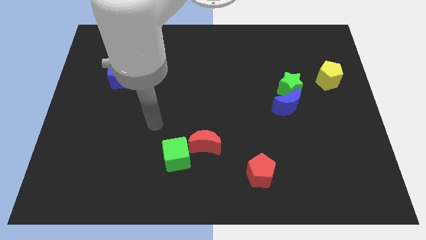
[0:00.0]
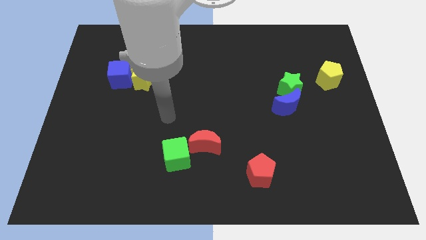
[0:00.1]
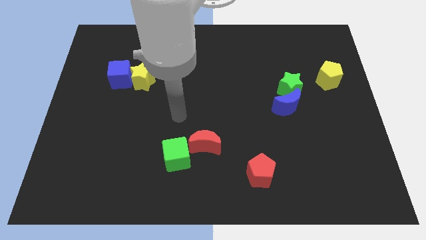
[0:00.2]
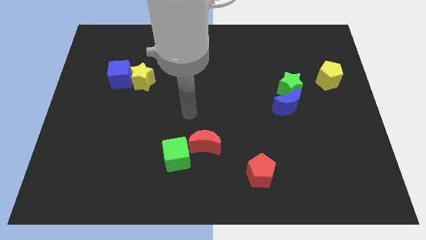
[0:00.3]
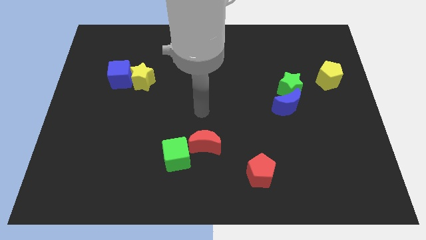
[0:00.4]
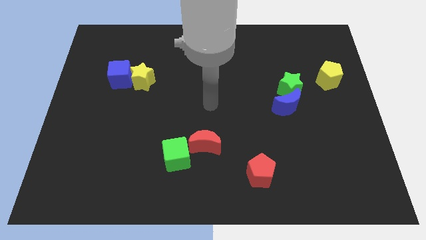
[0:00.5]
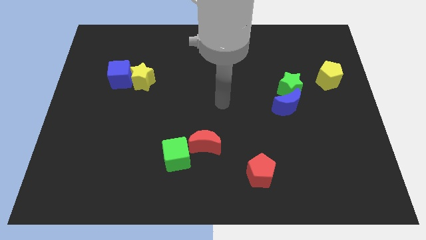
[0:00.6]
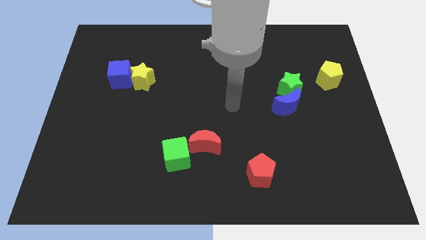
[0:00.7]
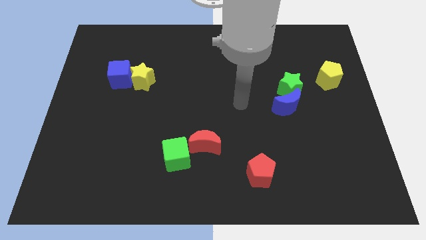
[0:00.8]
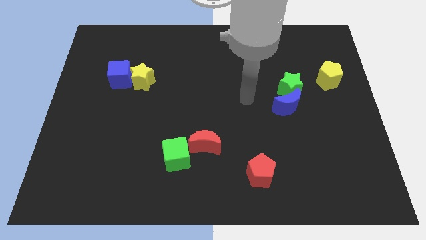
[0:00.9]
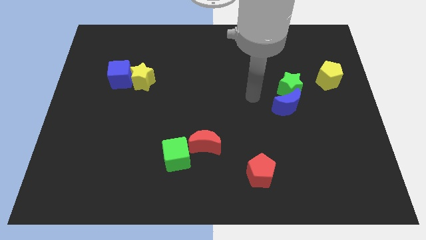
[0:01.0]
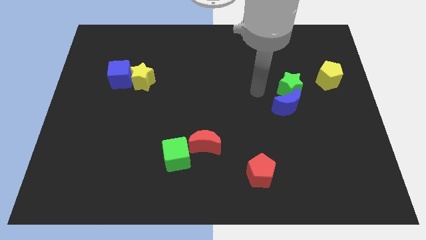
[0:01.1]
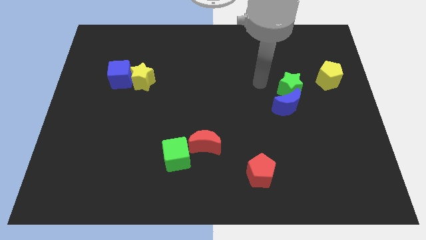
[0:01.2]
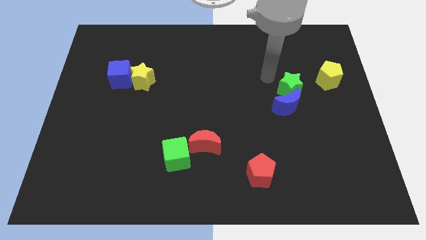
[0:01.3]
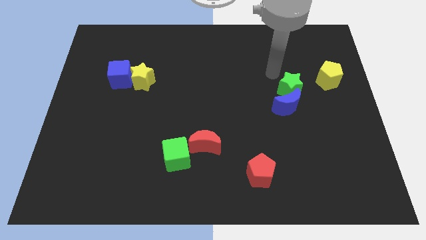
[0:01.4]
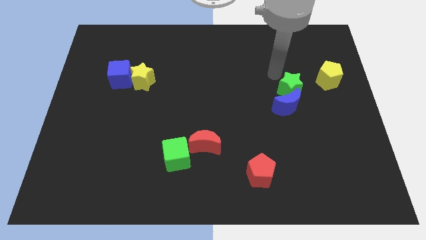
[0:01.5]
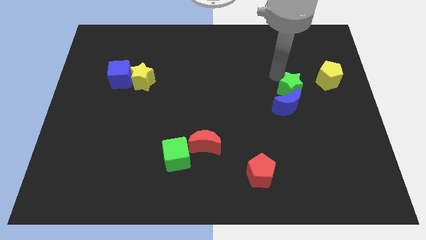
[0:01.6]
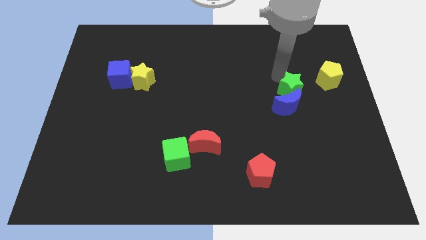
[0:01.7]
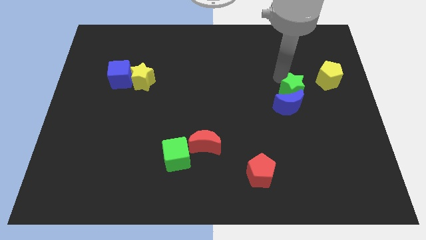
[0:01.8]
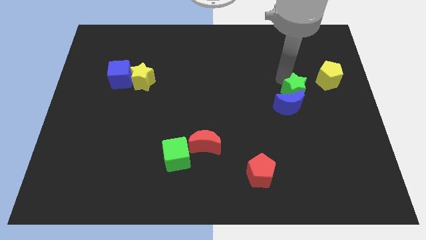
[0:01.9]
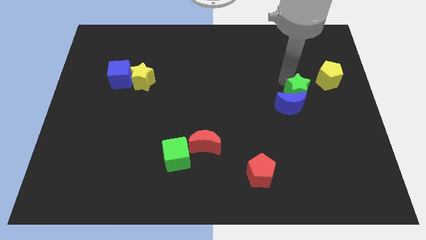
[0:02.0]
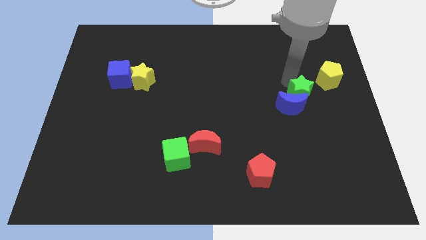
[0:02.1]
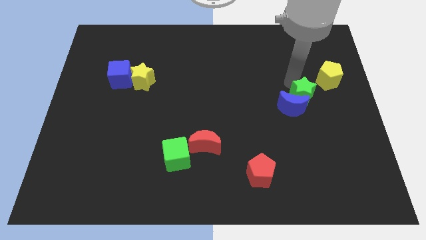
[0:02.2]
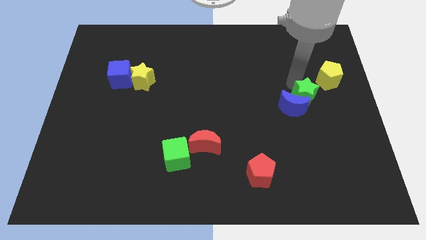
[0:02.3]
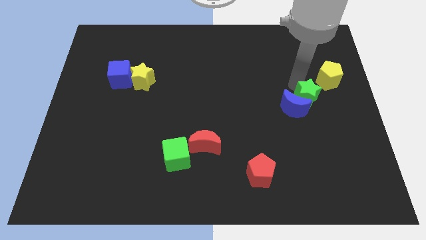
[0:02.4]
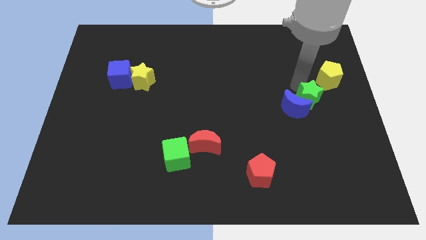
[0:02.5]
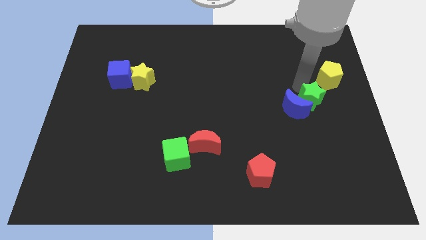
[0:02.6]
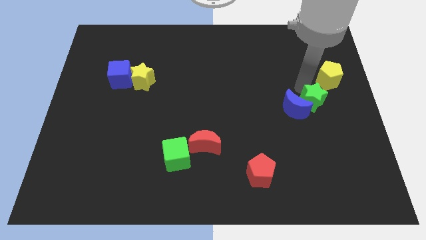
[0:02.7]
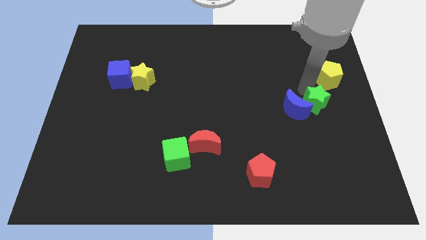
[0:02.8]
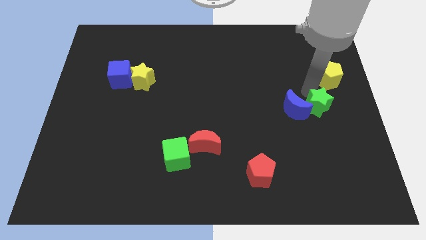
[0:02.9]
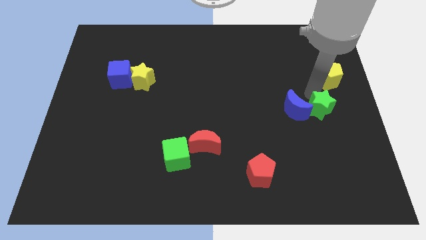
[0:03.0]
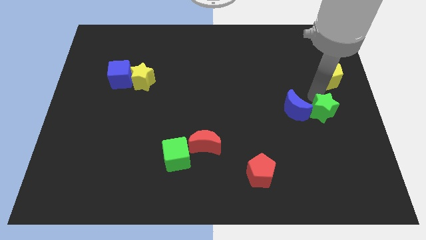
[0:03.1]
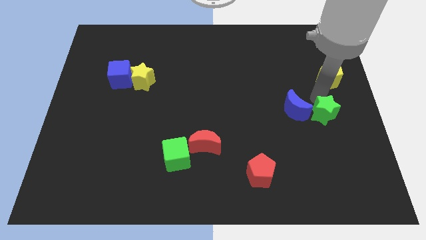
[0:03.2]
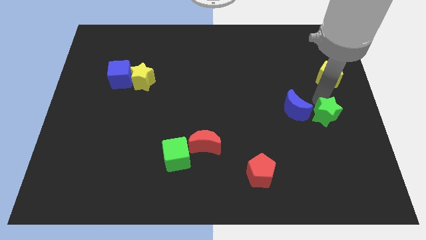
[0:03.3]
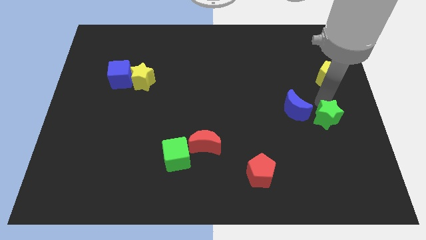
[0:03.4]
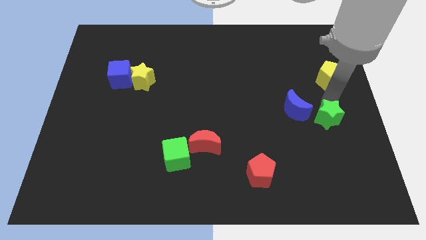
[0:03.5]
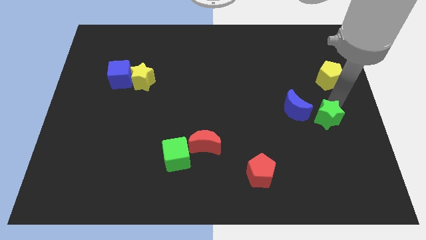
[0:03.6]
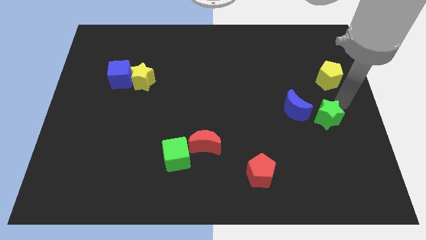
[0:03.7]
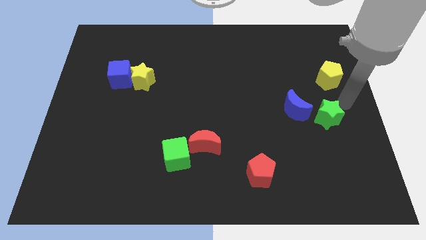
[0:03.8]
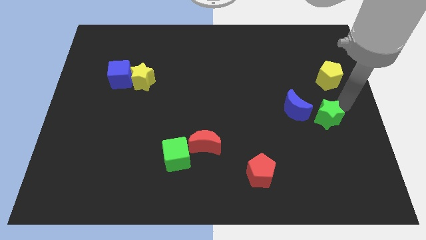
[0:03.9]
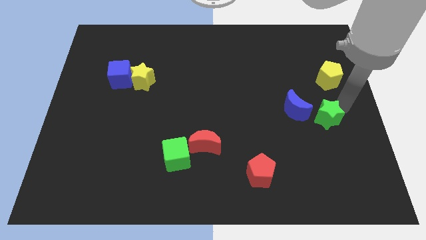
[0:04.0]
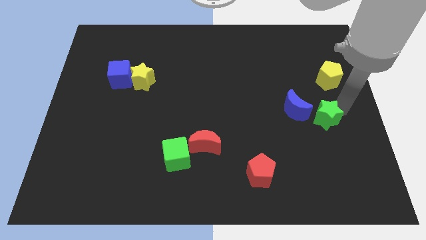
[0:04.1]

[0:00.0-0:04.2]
slightly move the green star downwards

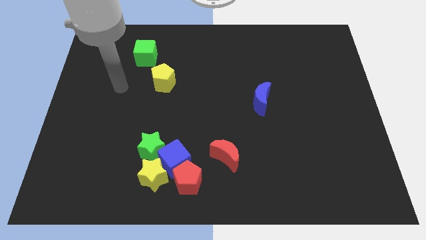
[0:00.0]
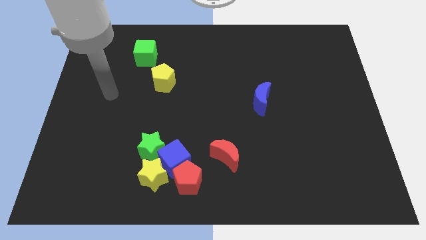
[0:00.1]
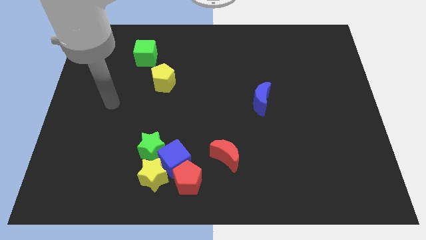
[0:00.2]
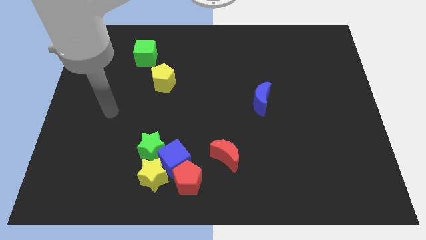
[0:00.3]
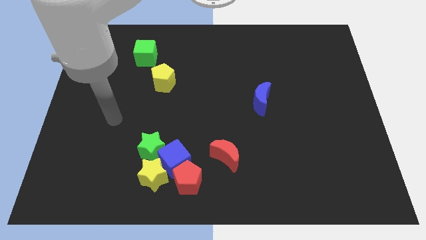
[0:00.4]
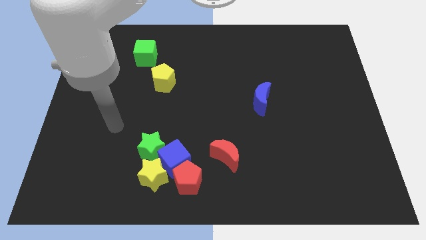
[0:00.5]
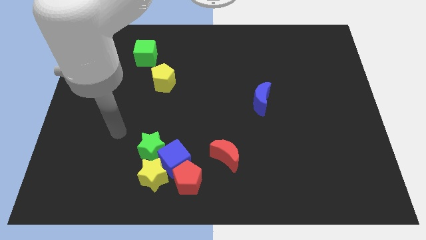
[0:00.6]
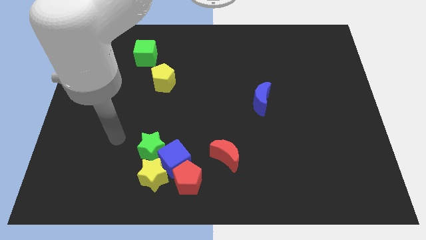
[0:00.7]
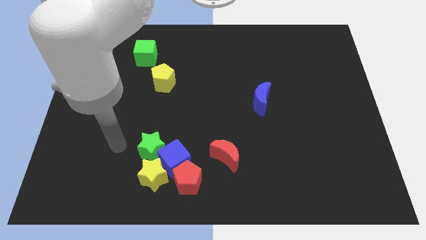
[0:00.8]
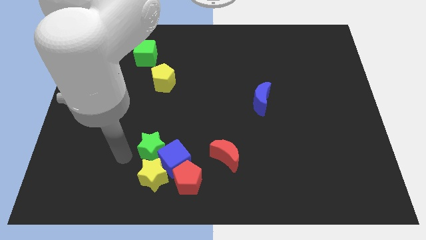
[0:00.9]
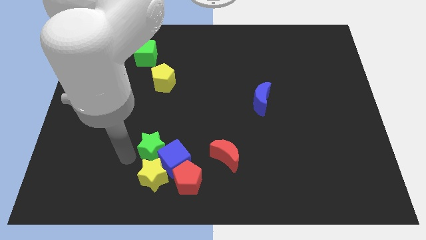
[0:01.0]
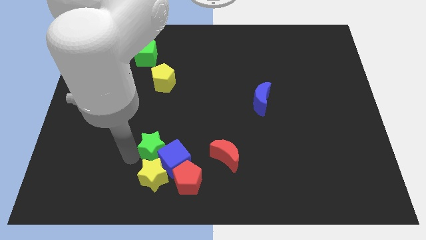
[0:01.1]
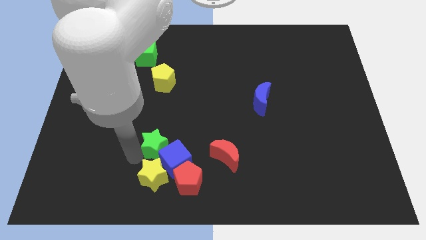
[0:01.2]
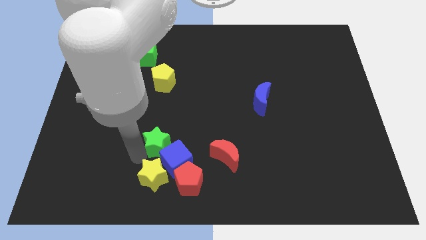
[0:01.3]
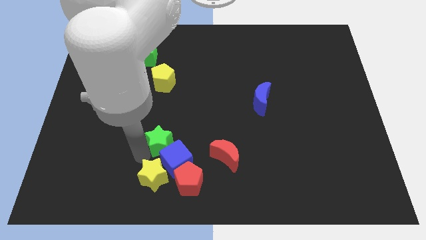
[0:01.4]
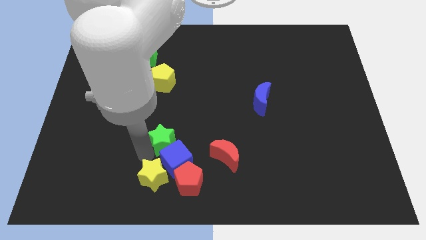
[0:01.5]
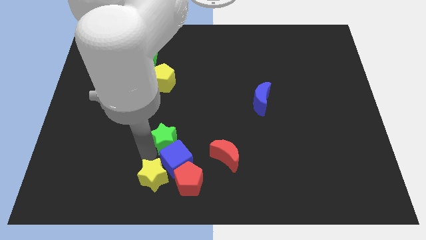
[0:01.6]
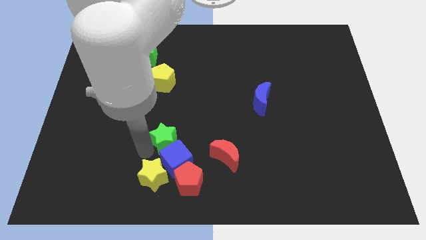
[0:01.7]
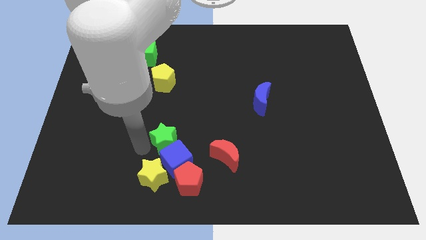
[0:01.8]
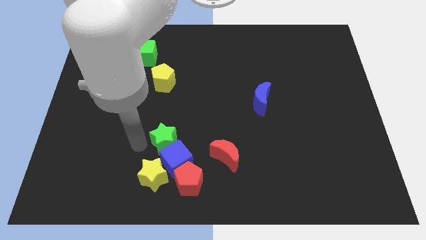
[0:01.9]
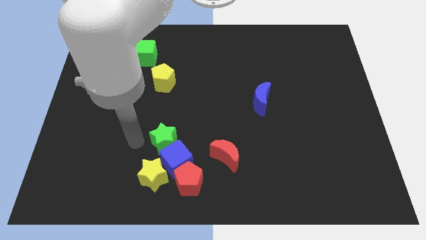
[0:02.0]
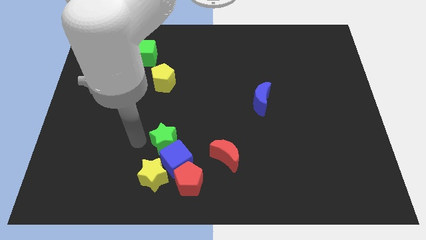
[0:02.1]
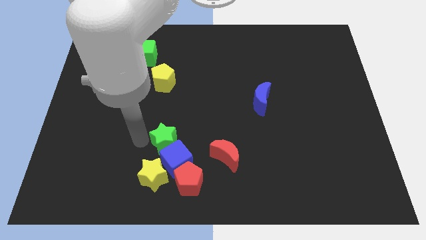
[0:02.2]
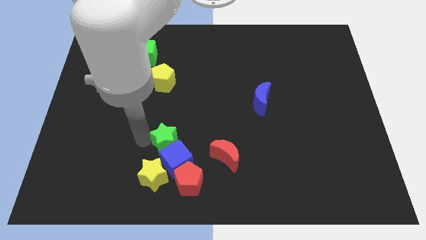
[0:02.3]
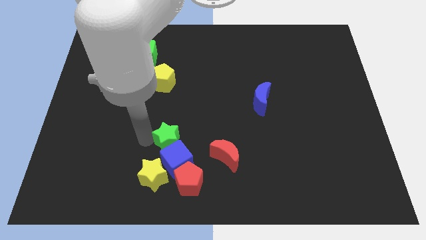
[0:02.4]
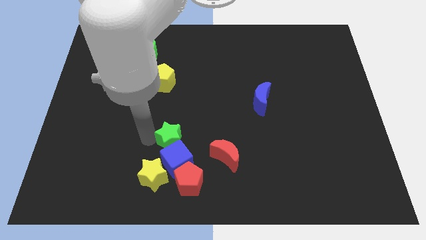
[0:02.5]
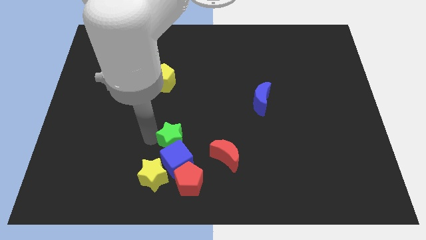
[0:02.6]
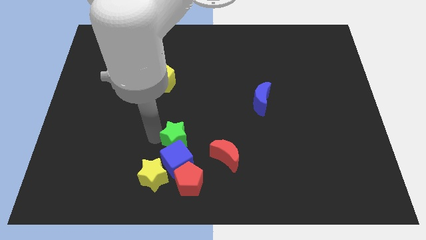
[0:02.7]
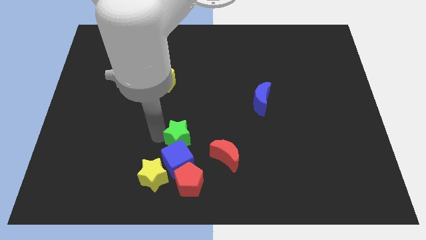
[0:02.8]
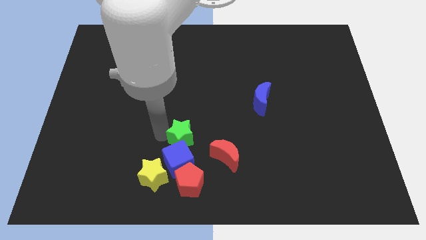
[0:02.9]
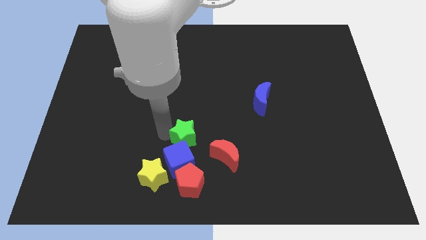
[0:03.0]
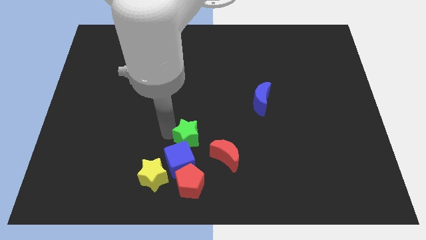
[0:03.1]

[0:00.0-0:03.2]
move the green star right a bit

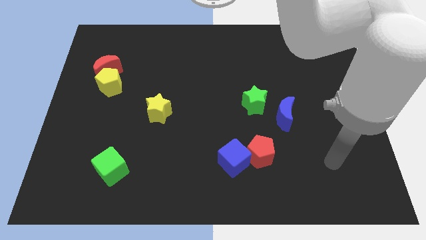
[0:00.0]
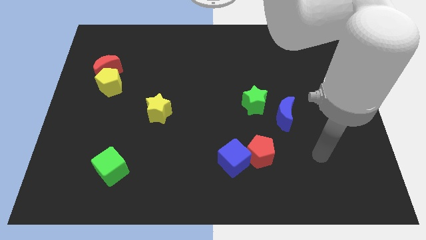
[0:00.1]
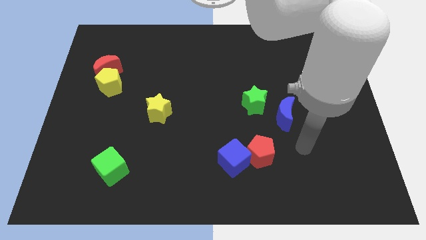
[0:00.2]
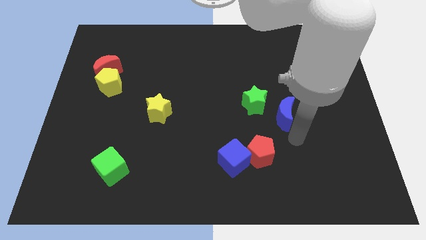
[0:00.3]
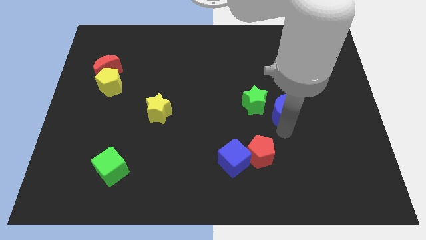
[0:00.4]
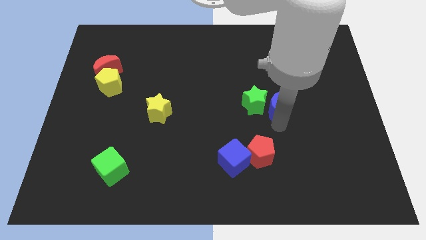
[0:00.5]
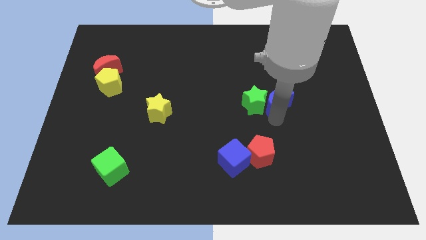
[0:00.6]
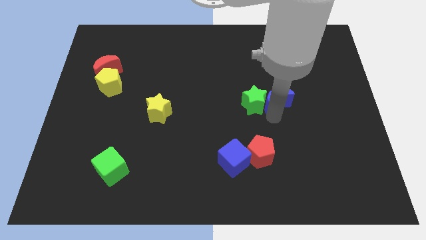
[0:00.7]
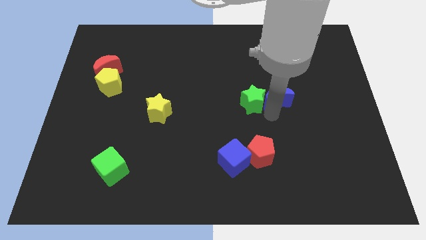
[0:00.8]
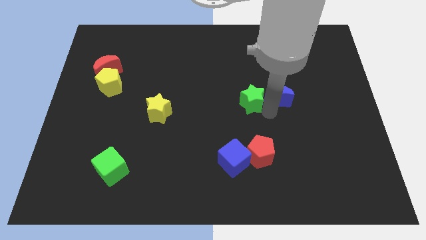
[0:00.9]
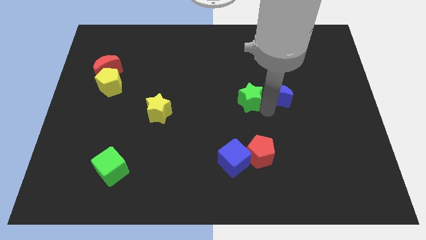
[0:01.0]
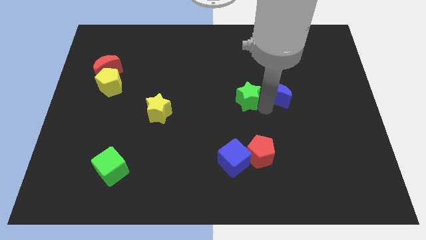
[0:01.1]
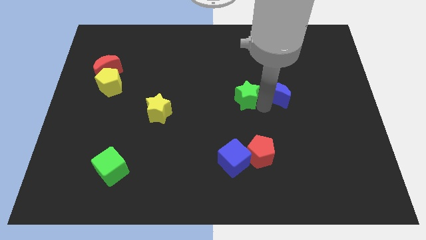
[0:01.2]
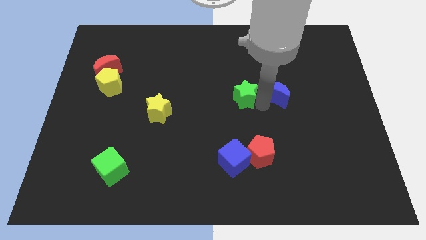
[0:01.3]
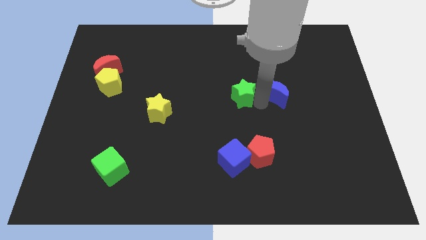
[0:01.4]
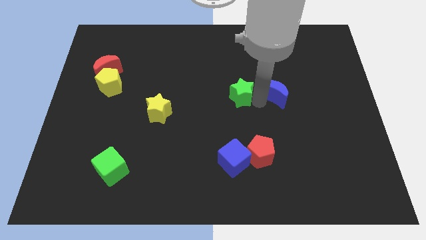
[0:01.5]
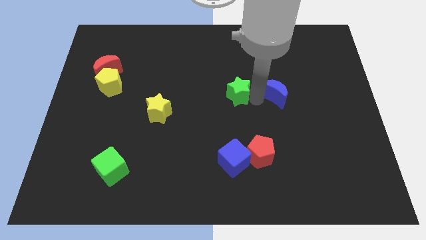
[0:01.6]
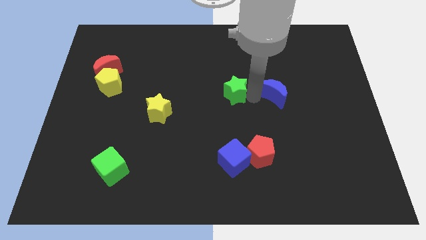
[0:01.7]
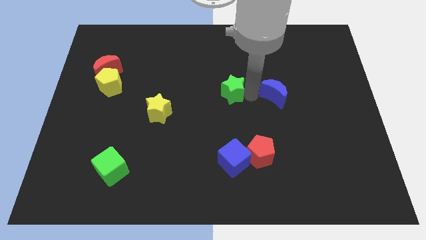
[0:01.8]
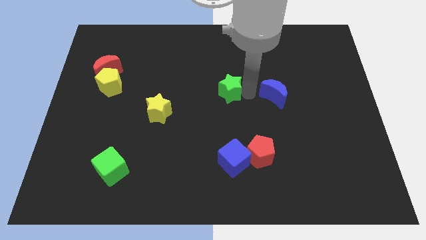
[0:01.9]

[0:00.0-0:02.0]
slightly push the green star upwards and to the left
